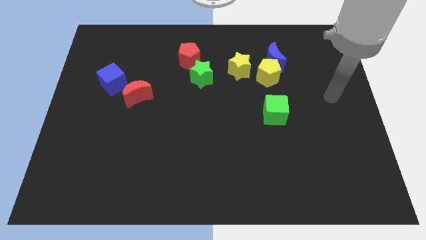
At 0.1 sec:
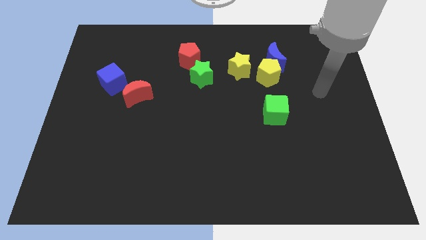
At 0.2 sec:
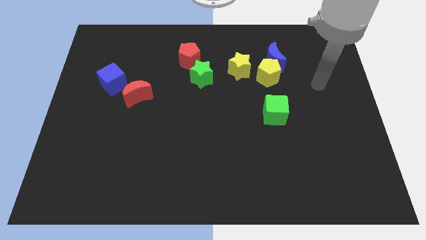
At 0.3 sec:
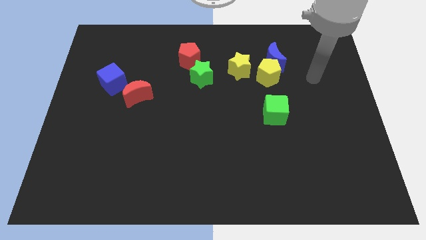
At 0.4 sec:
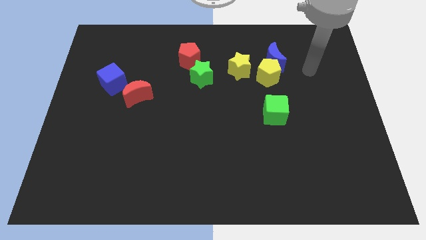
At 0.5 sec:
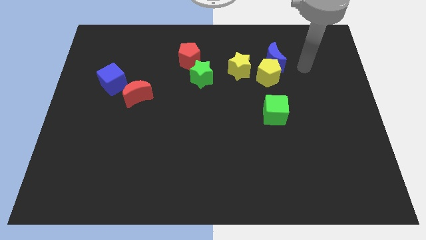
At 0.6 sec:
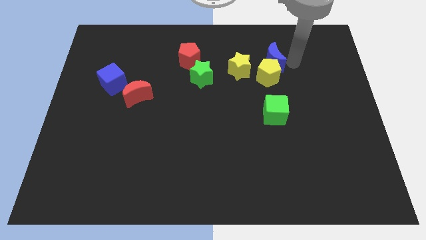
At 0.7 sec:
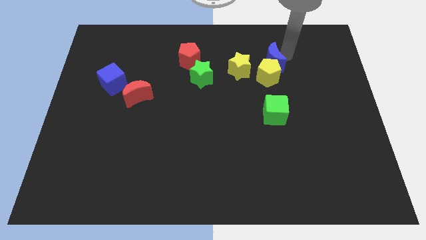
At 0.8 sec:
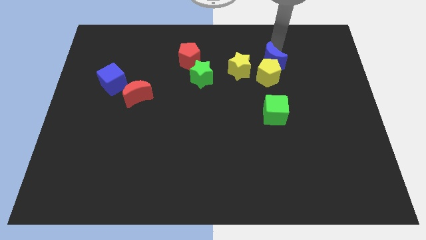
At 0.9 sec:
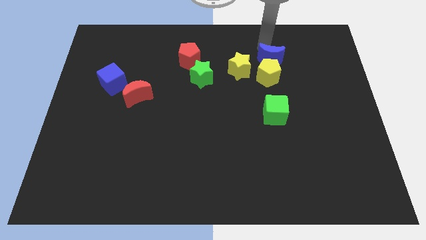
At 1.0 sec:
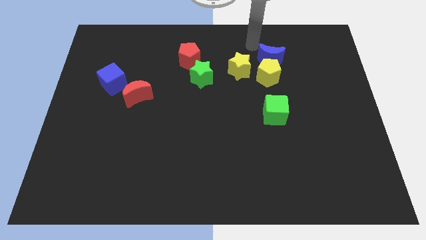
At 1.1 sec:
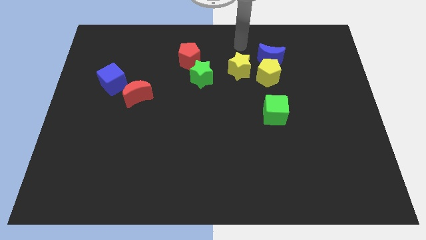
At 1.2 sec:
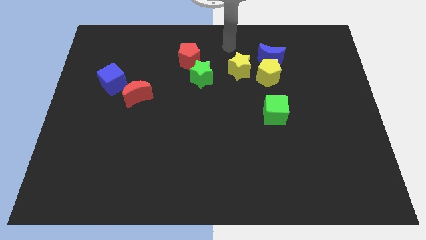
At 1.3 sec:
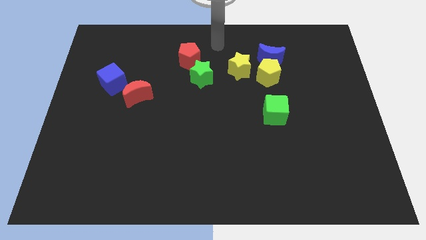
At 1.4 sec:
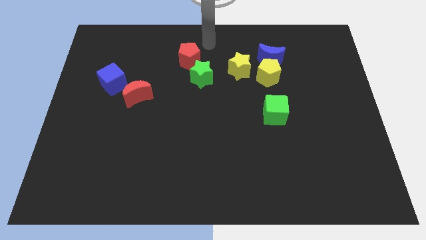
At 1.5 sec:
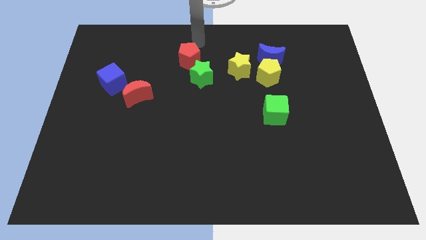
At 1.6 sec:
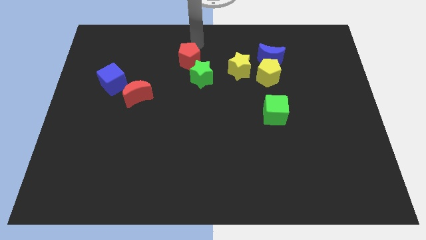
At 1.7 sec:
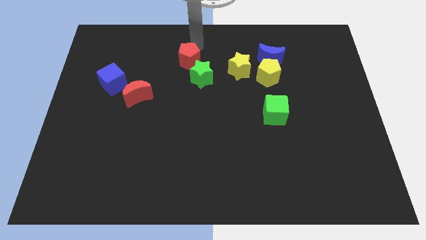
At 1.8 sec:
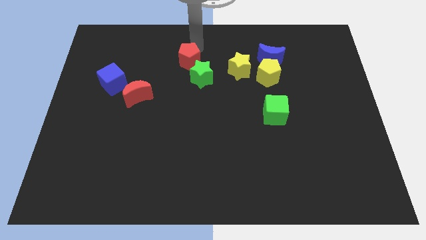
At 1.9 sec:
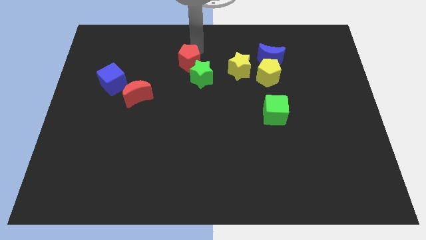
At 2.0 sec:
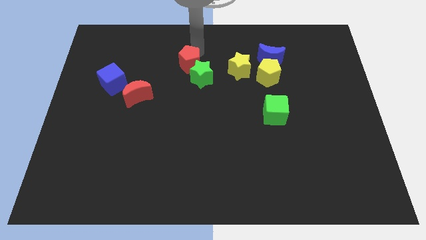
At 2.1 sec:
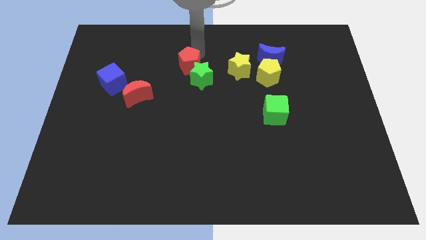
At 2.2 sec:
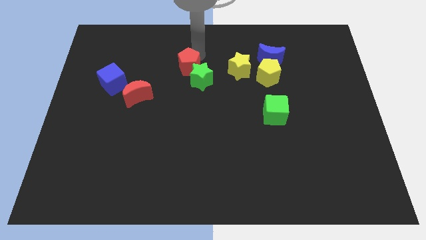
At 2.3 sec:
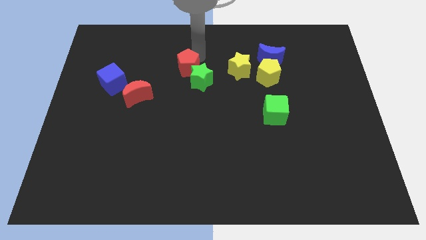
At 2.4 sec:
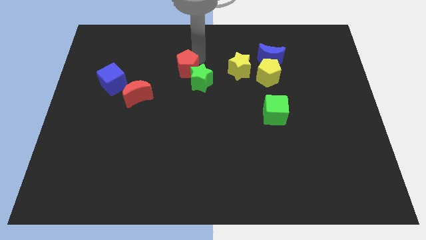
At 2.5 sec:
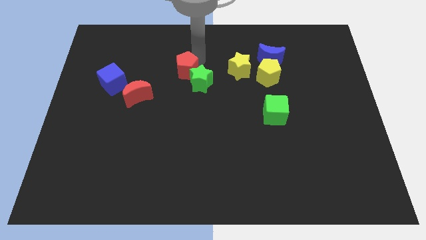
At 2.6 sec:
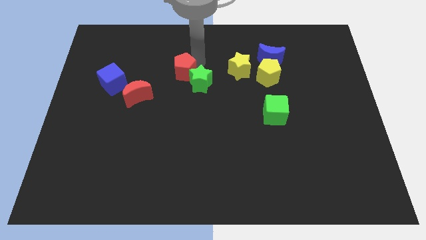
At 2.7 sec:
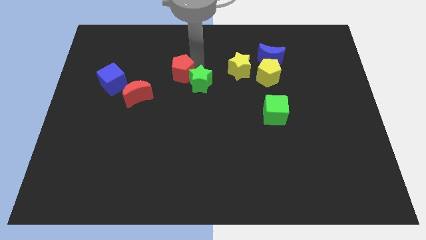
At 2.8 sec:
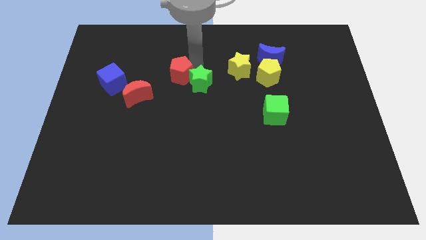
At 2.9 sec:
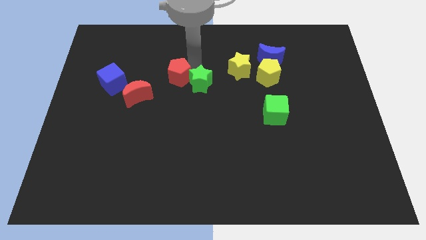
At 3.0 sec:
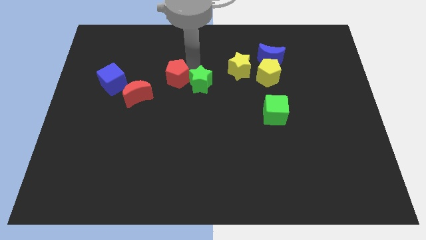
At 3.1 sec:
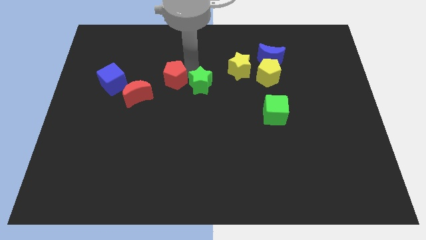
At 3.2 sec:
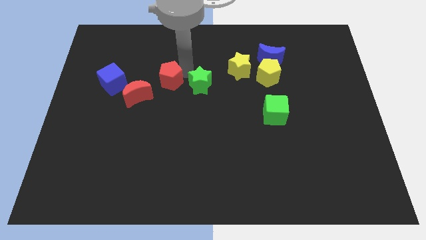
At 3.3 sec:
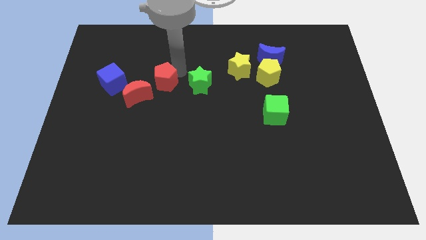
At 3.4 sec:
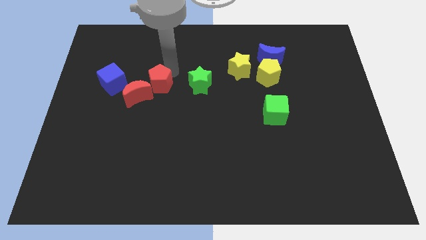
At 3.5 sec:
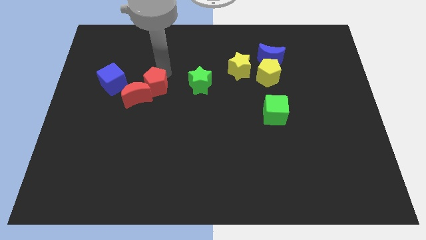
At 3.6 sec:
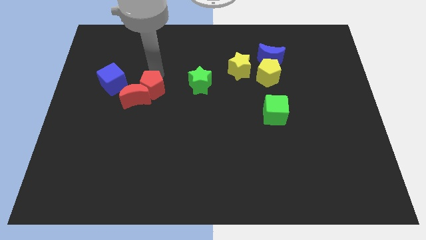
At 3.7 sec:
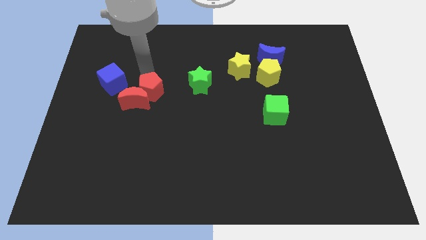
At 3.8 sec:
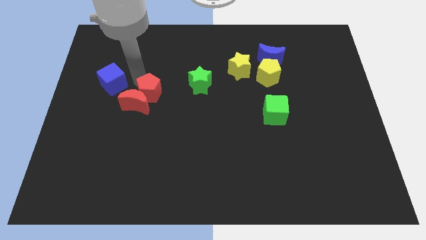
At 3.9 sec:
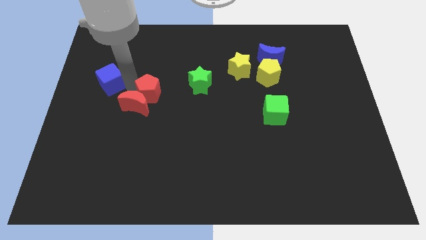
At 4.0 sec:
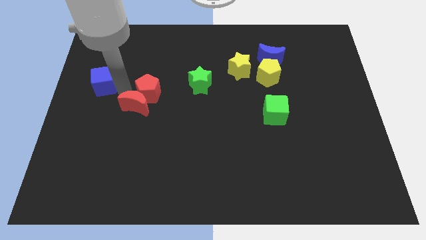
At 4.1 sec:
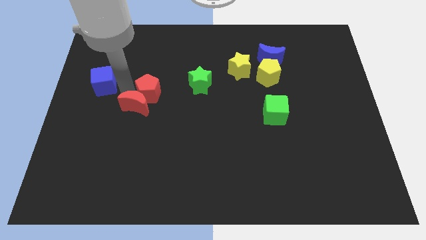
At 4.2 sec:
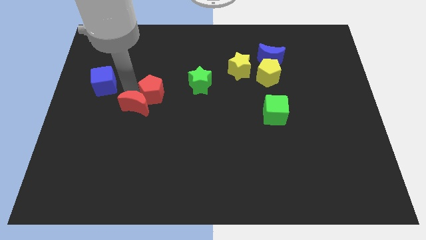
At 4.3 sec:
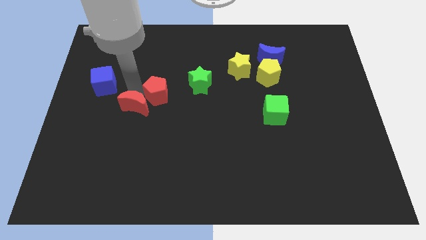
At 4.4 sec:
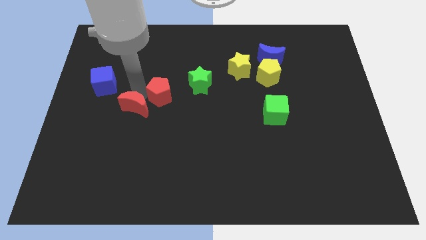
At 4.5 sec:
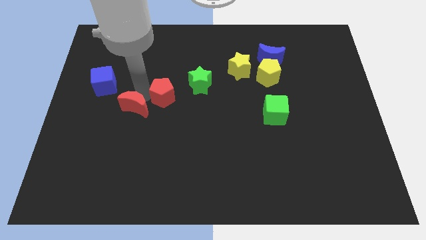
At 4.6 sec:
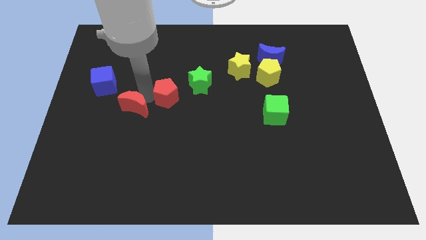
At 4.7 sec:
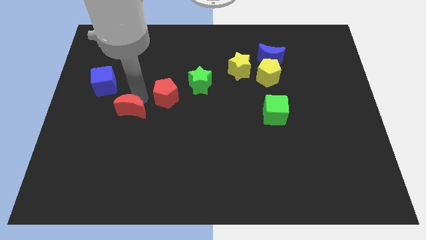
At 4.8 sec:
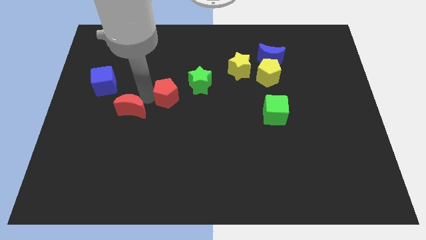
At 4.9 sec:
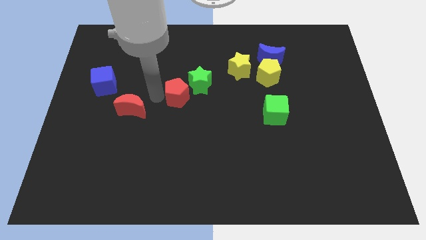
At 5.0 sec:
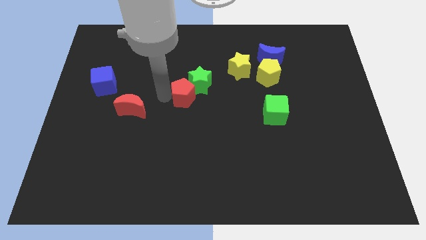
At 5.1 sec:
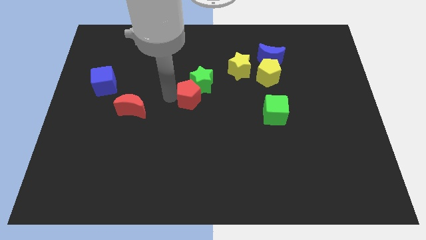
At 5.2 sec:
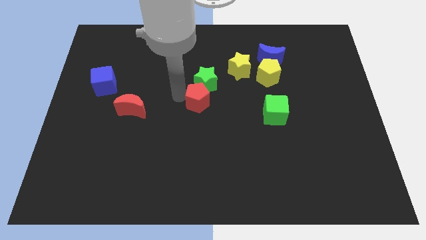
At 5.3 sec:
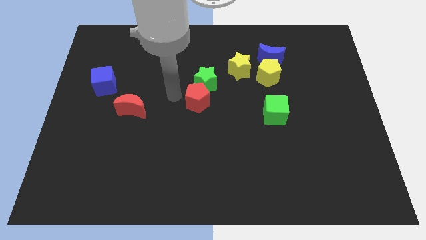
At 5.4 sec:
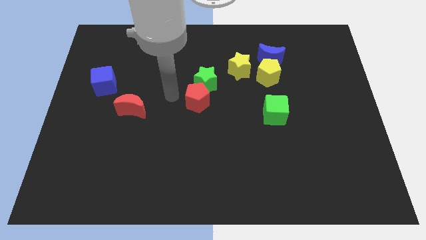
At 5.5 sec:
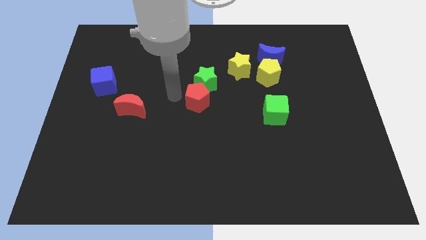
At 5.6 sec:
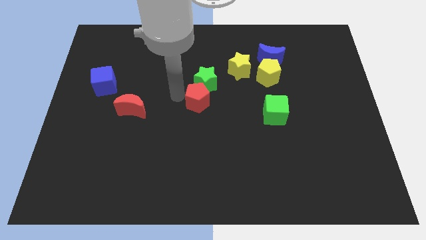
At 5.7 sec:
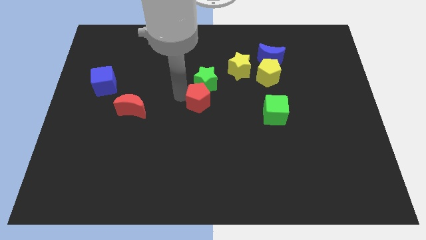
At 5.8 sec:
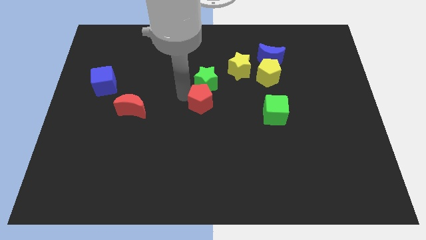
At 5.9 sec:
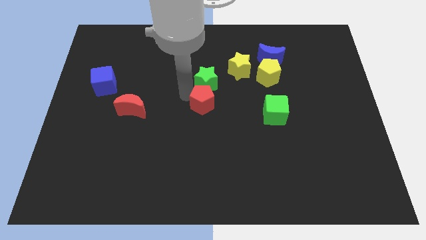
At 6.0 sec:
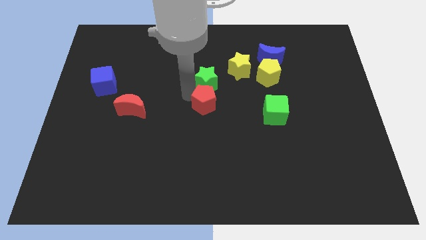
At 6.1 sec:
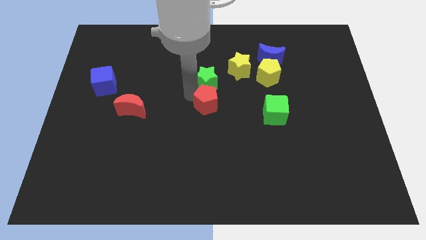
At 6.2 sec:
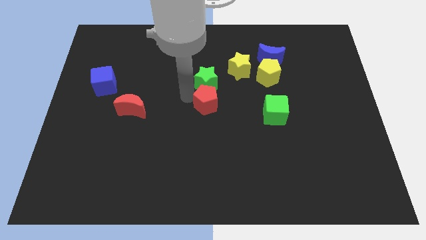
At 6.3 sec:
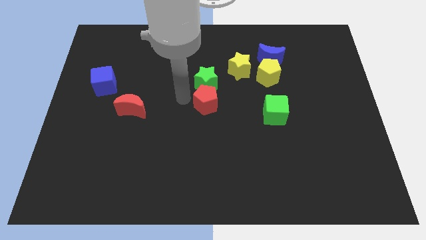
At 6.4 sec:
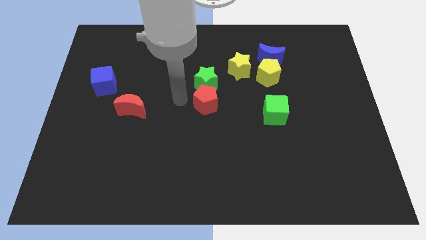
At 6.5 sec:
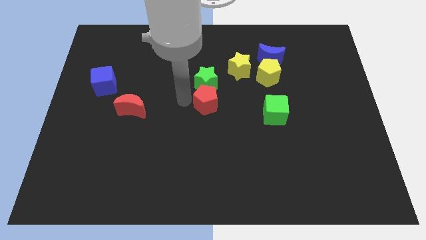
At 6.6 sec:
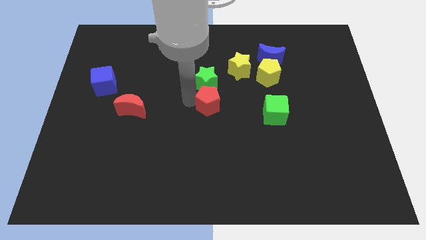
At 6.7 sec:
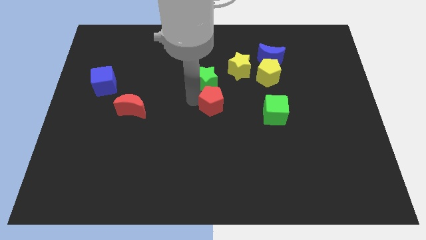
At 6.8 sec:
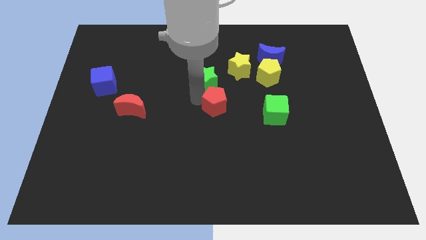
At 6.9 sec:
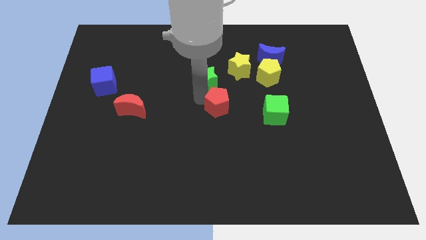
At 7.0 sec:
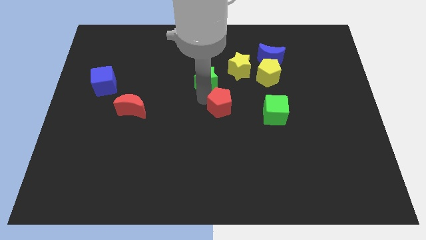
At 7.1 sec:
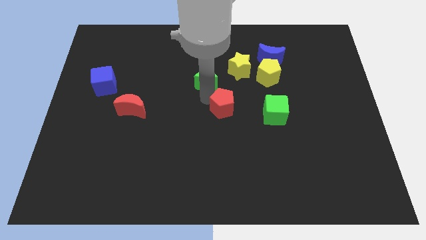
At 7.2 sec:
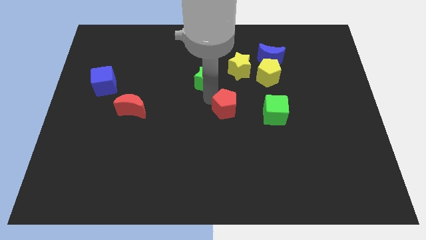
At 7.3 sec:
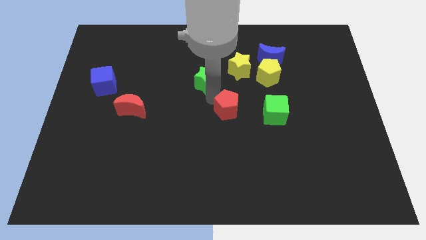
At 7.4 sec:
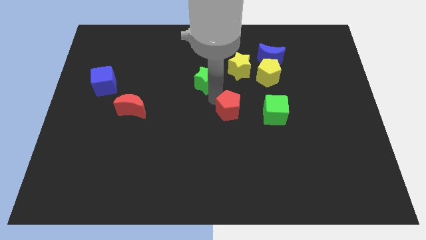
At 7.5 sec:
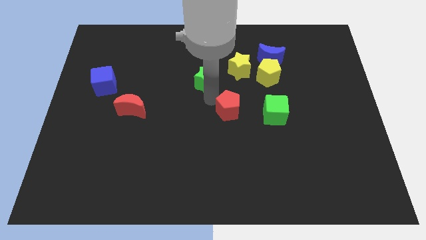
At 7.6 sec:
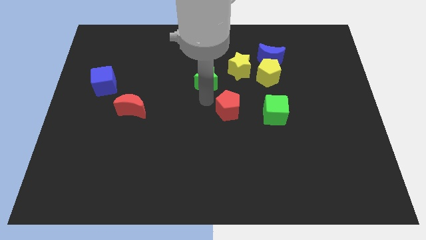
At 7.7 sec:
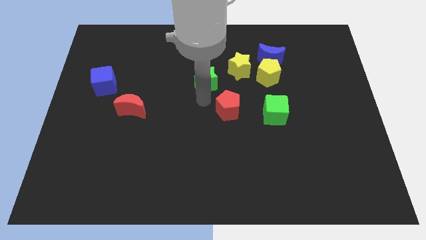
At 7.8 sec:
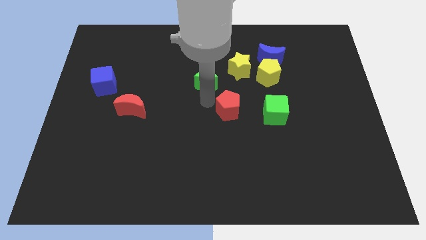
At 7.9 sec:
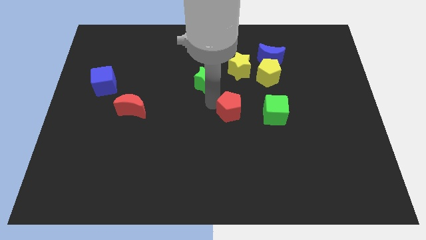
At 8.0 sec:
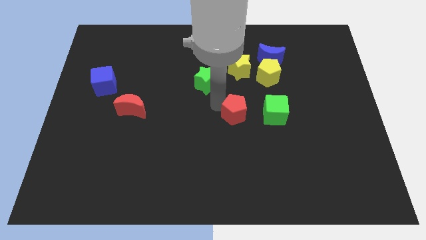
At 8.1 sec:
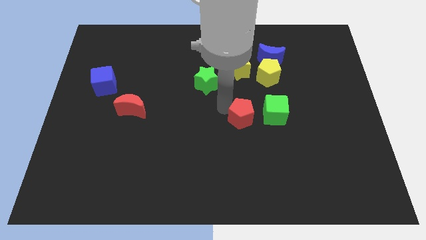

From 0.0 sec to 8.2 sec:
slide the red pentagon downwards and then right
